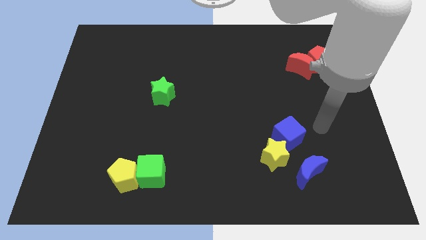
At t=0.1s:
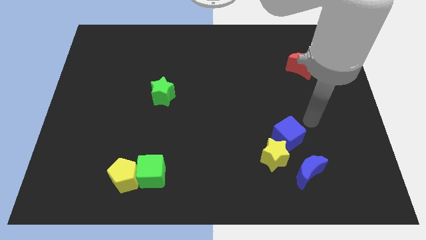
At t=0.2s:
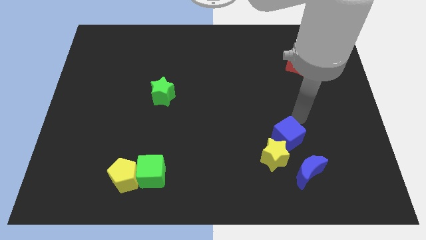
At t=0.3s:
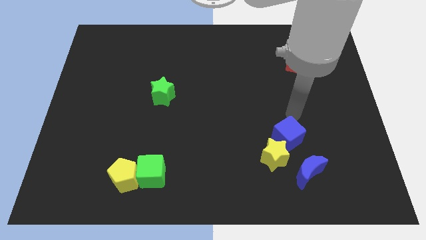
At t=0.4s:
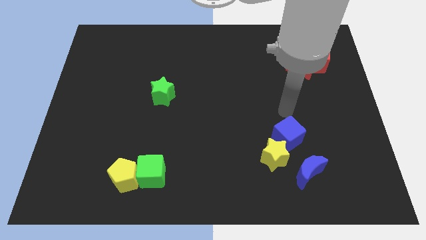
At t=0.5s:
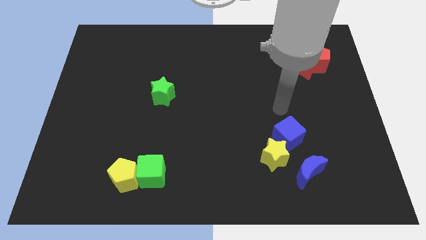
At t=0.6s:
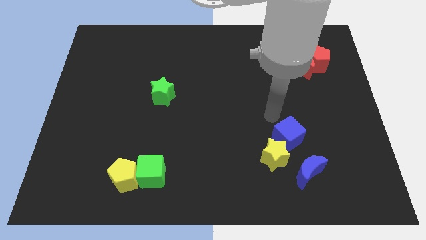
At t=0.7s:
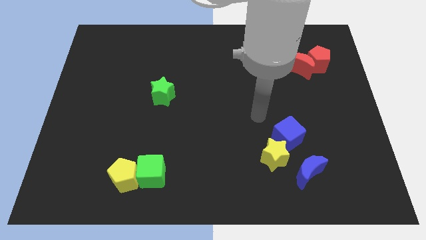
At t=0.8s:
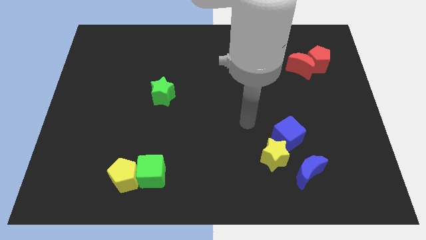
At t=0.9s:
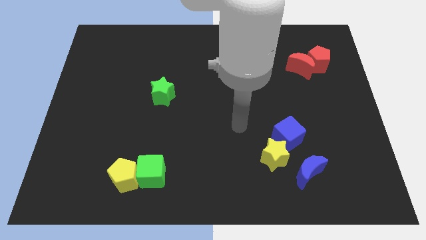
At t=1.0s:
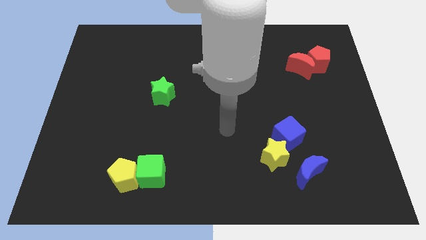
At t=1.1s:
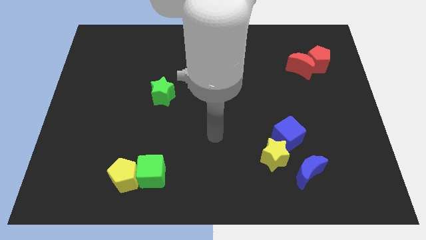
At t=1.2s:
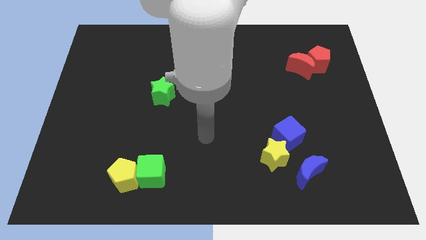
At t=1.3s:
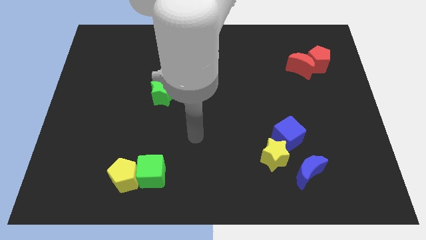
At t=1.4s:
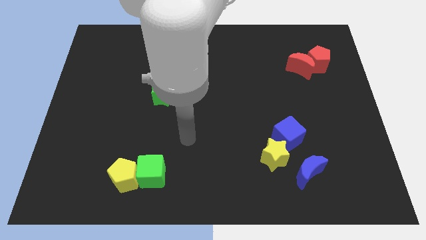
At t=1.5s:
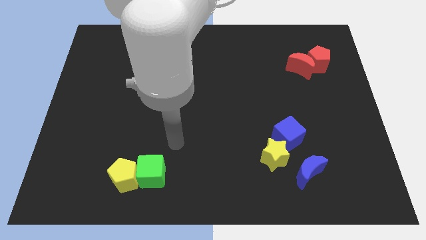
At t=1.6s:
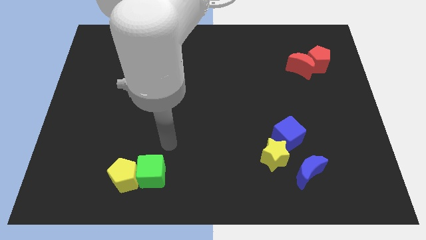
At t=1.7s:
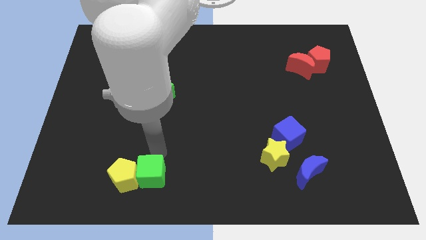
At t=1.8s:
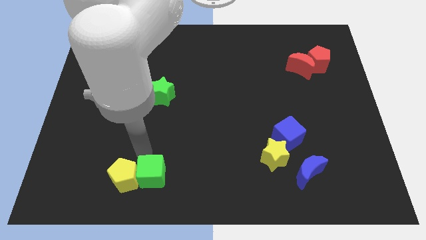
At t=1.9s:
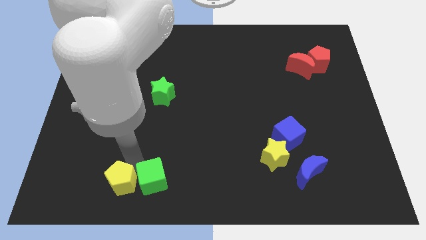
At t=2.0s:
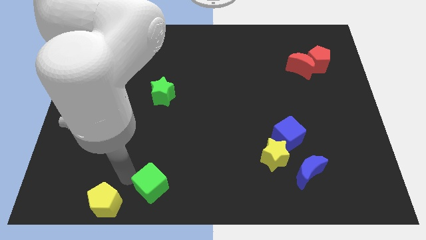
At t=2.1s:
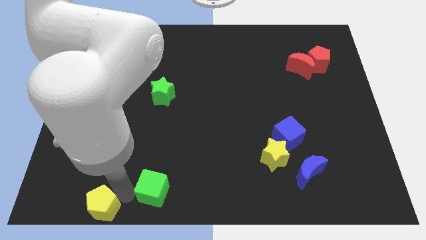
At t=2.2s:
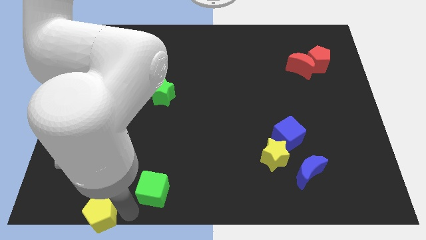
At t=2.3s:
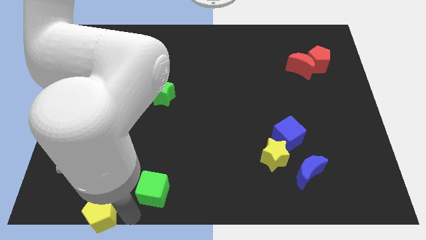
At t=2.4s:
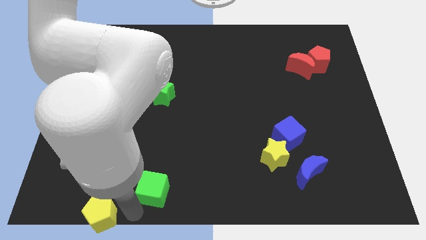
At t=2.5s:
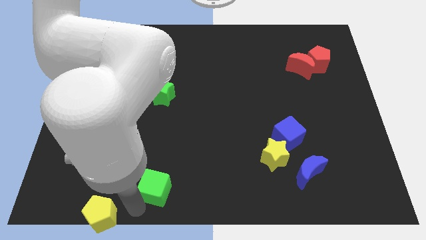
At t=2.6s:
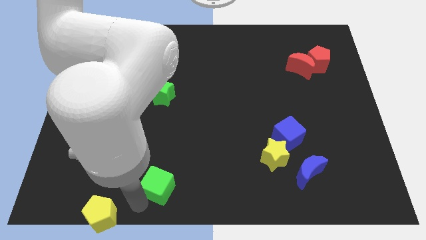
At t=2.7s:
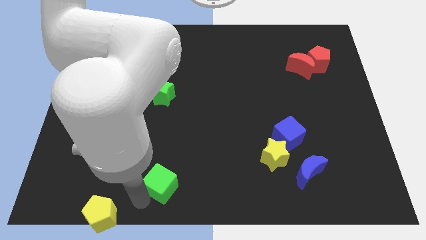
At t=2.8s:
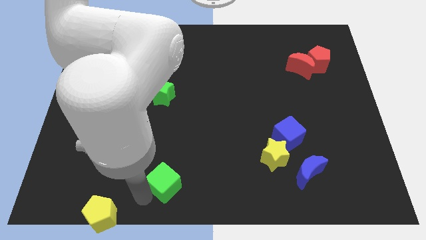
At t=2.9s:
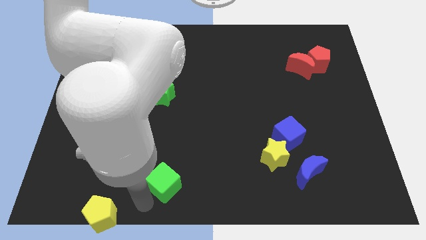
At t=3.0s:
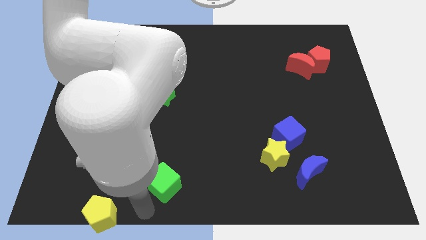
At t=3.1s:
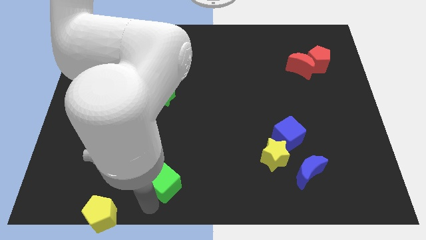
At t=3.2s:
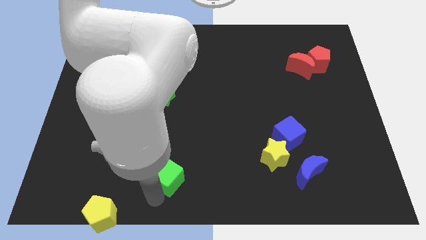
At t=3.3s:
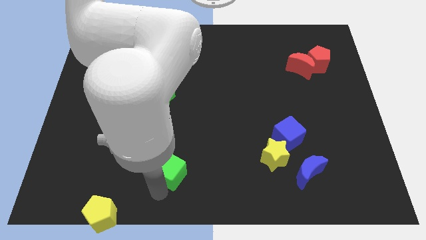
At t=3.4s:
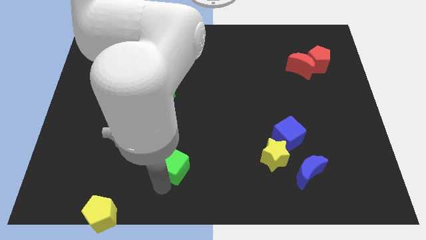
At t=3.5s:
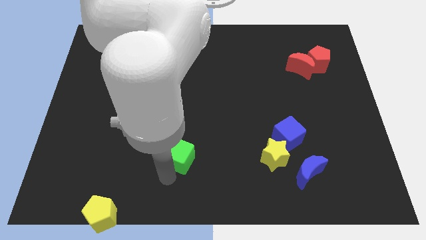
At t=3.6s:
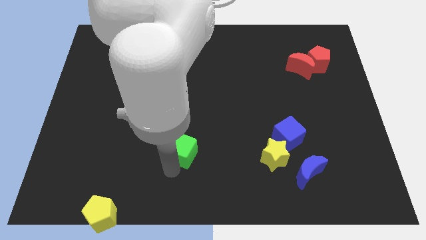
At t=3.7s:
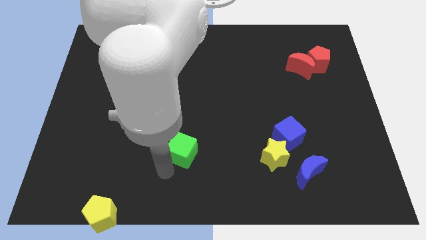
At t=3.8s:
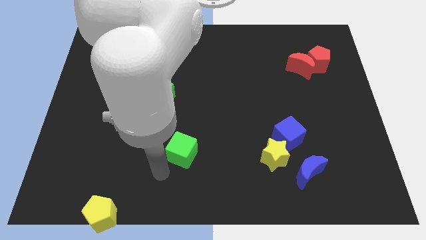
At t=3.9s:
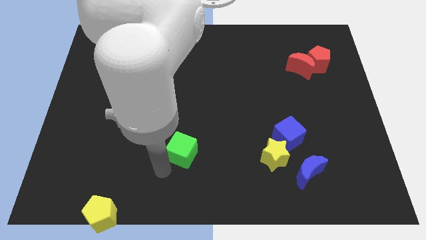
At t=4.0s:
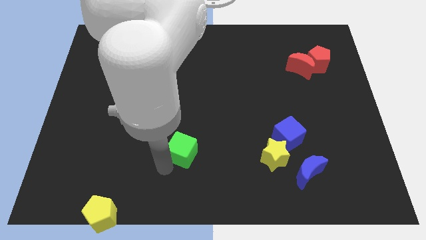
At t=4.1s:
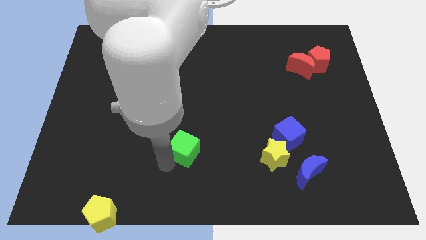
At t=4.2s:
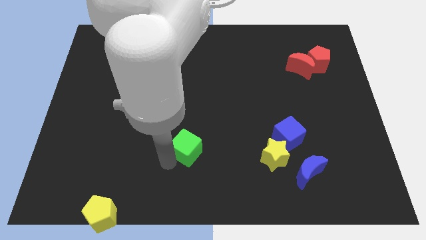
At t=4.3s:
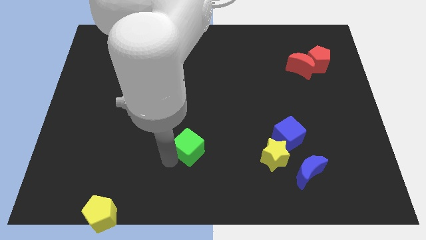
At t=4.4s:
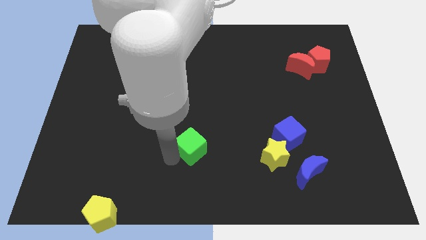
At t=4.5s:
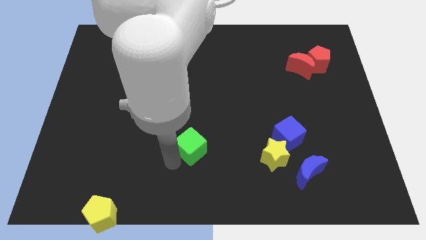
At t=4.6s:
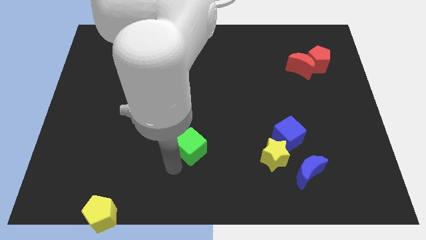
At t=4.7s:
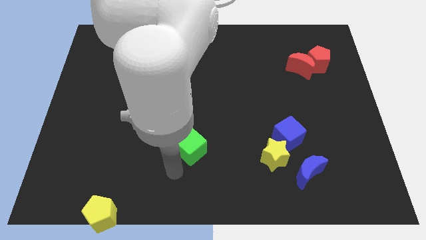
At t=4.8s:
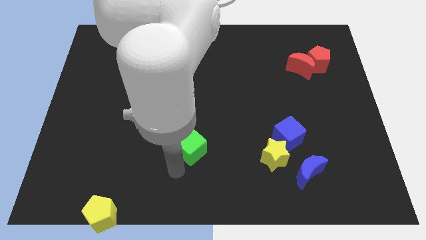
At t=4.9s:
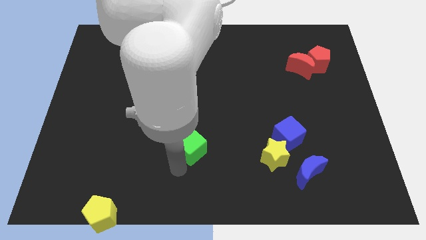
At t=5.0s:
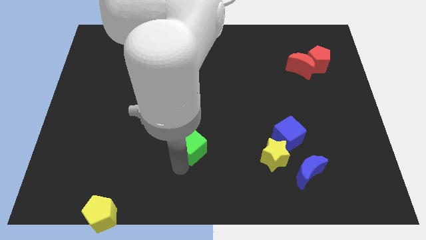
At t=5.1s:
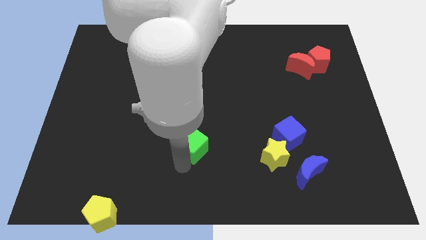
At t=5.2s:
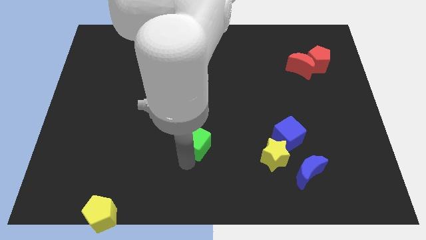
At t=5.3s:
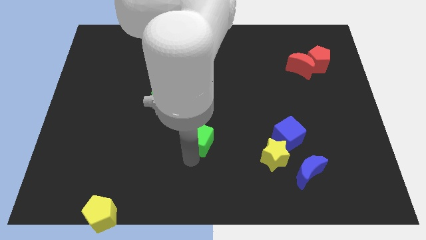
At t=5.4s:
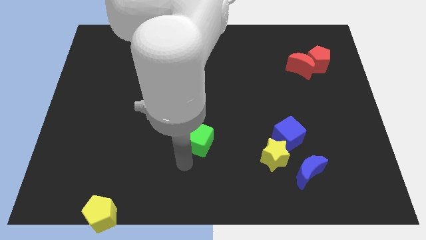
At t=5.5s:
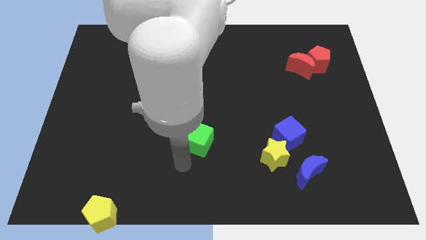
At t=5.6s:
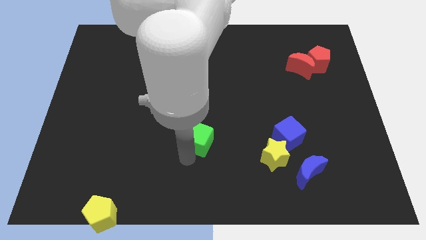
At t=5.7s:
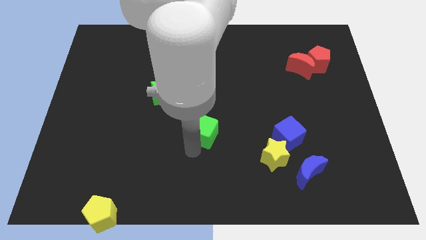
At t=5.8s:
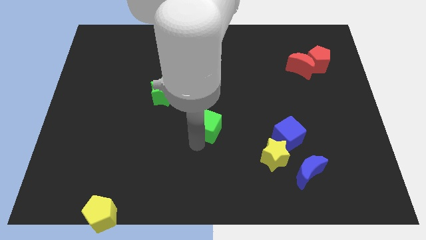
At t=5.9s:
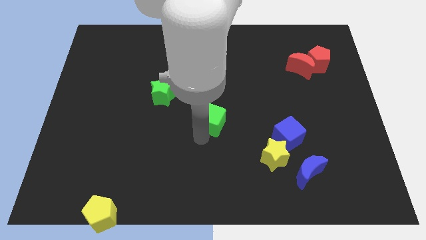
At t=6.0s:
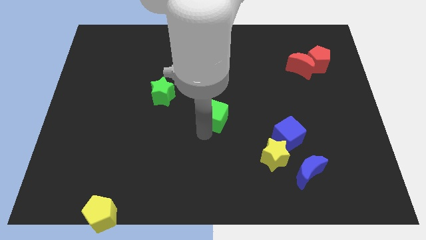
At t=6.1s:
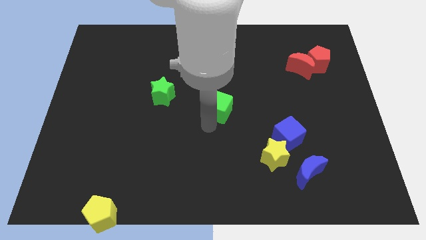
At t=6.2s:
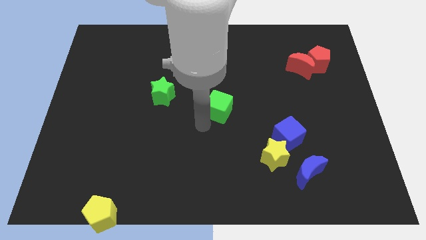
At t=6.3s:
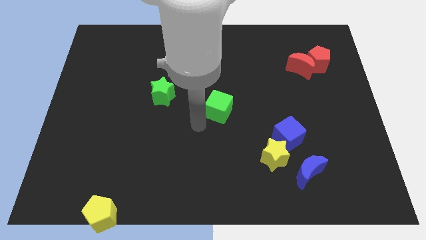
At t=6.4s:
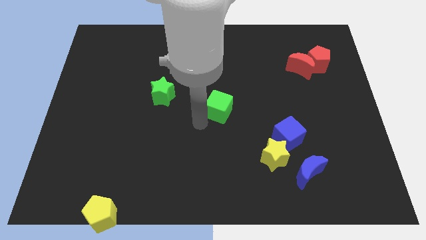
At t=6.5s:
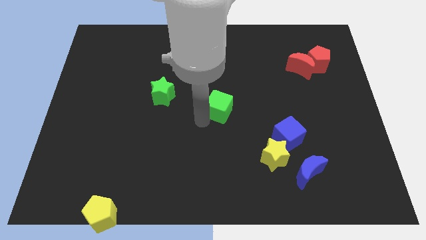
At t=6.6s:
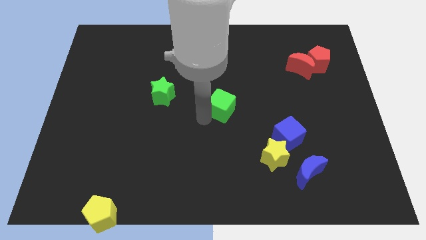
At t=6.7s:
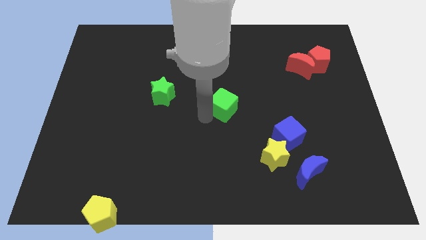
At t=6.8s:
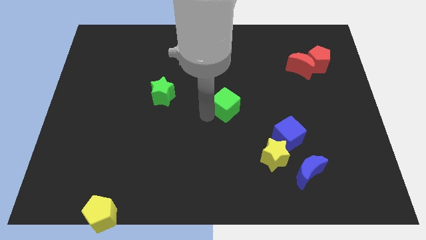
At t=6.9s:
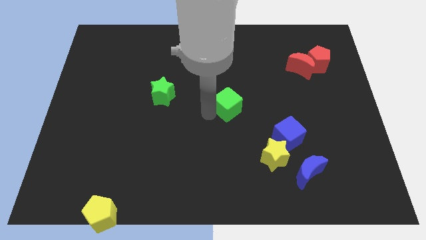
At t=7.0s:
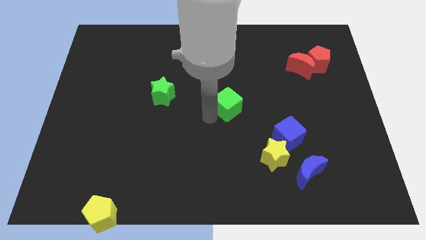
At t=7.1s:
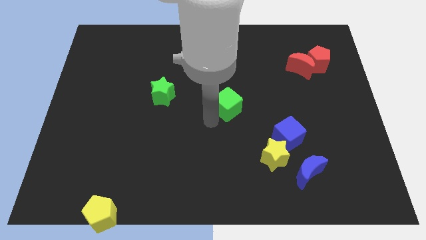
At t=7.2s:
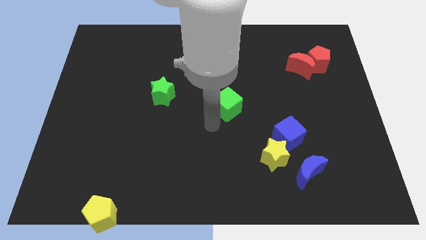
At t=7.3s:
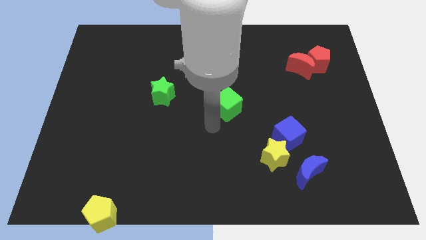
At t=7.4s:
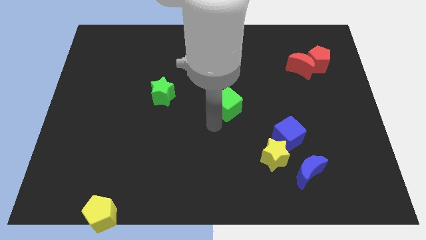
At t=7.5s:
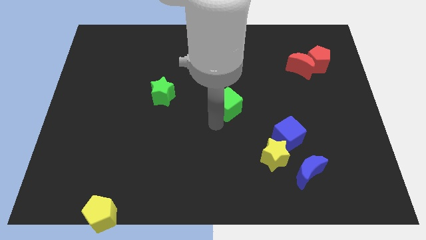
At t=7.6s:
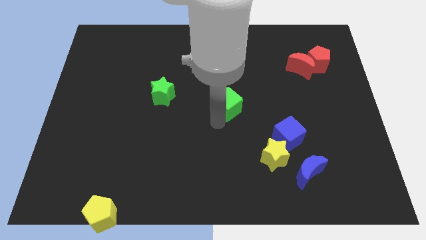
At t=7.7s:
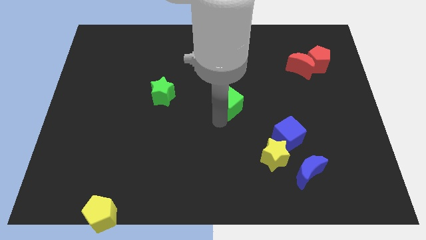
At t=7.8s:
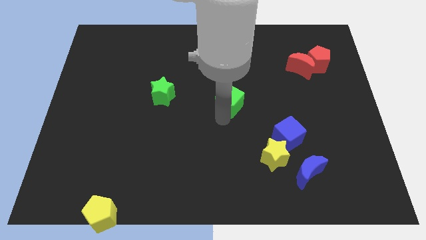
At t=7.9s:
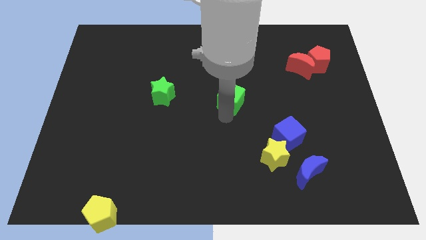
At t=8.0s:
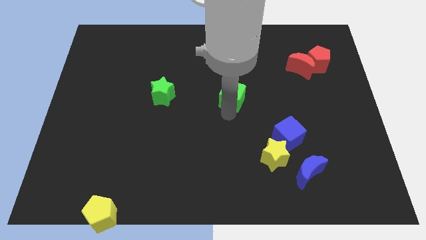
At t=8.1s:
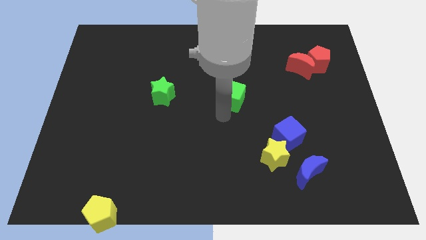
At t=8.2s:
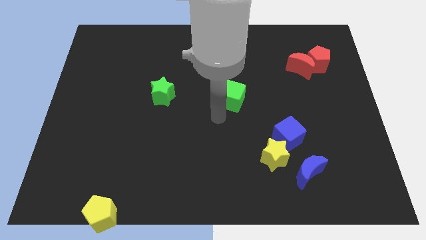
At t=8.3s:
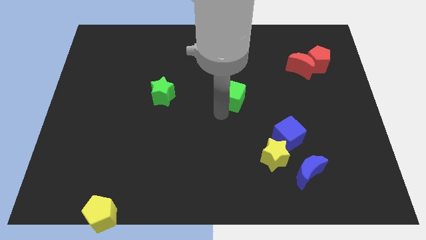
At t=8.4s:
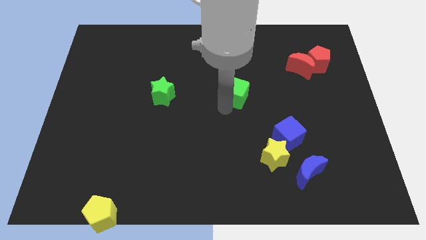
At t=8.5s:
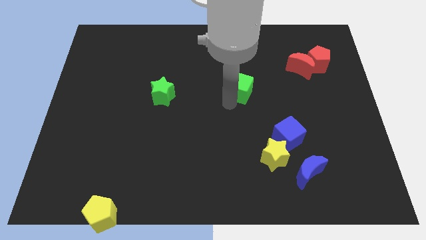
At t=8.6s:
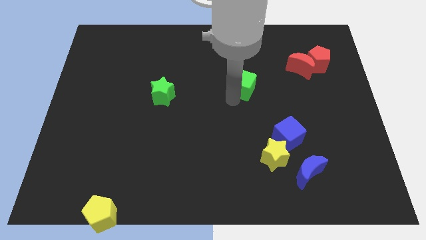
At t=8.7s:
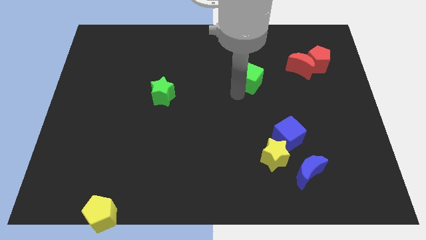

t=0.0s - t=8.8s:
put the green cube just left of the red moon
